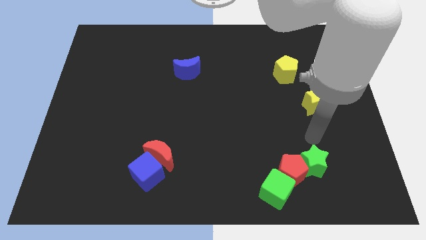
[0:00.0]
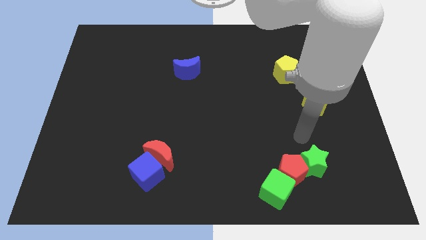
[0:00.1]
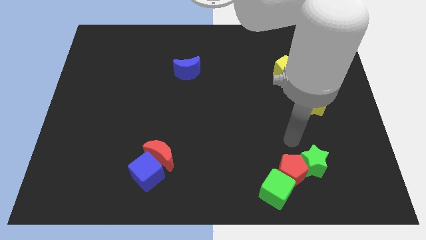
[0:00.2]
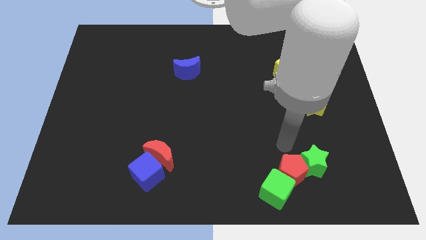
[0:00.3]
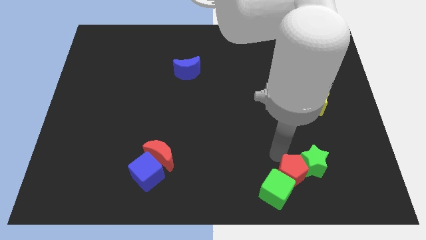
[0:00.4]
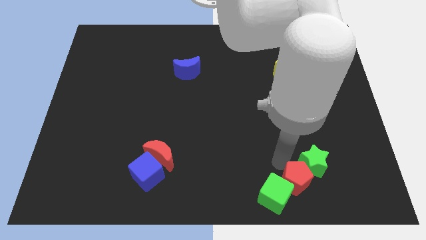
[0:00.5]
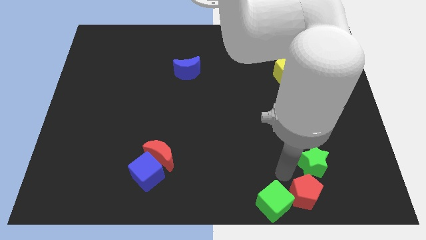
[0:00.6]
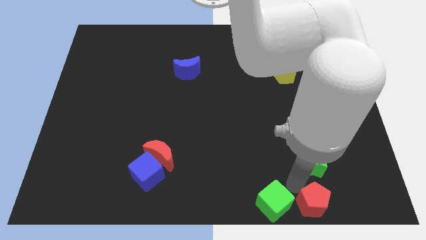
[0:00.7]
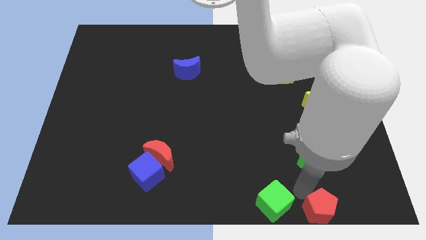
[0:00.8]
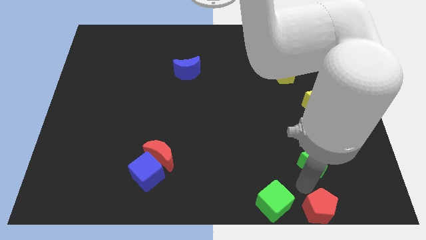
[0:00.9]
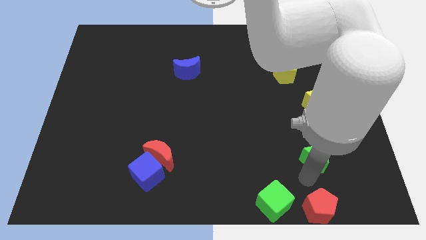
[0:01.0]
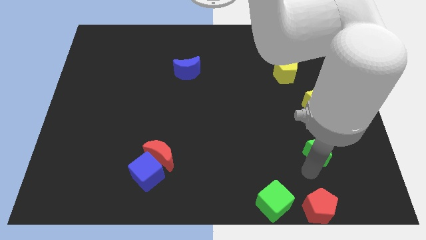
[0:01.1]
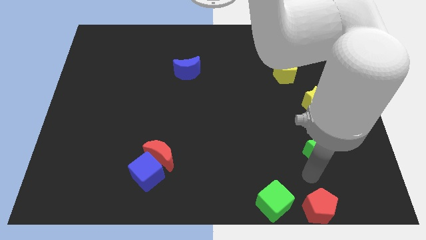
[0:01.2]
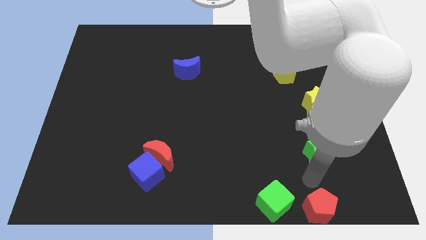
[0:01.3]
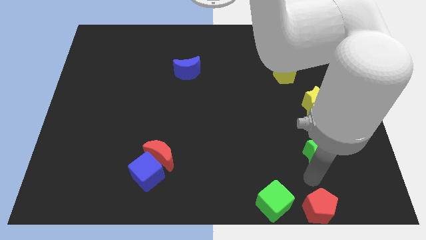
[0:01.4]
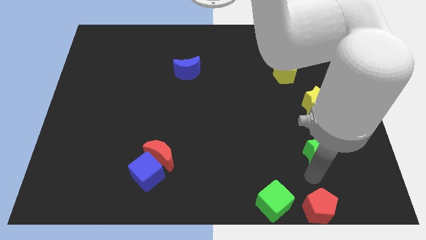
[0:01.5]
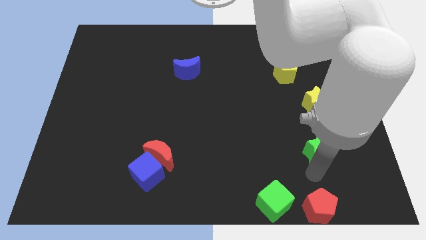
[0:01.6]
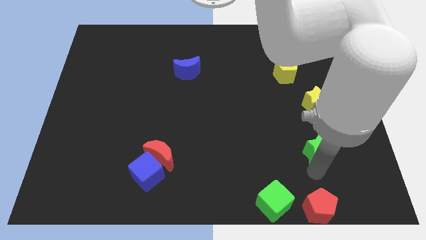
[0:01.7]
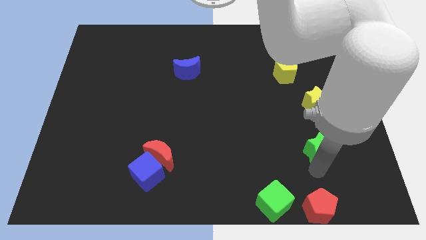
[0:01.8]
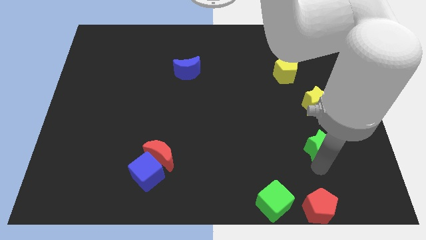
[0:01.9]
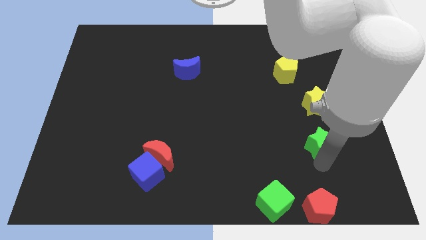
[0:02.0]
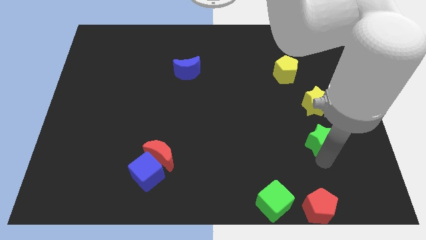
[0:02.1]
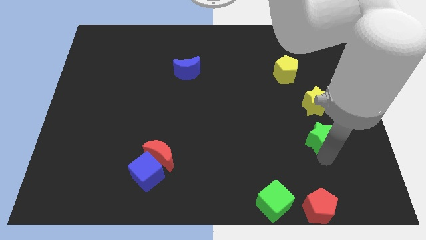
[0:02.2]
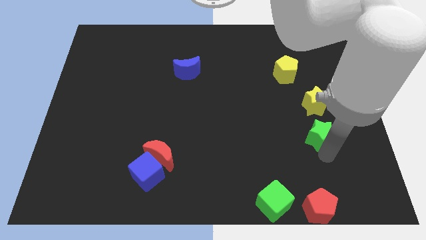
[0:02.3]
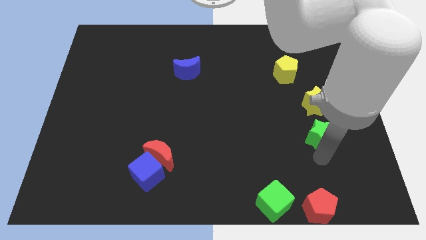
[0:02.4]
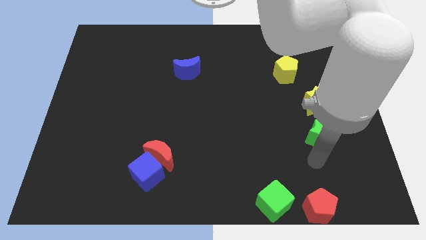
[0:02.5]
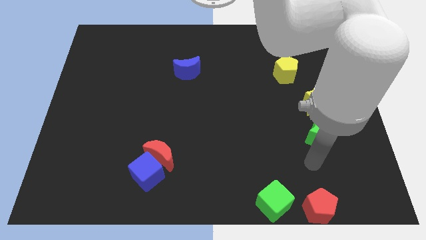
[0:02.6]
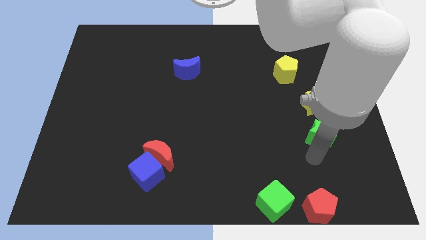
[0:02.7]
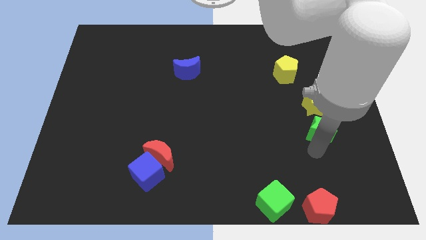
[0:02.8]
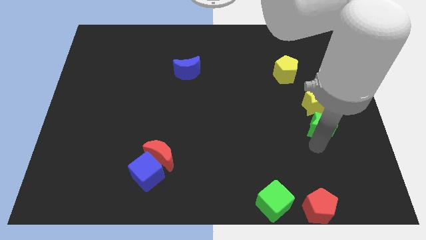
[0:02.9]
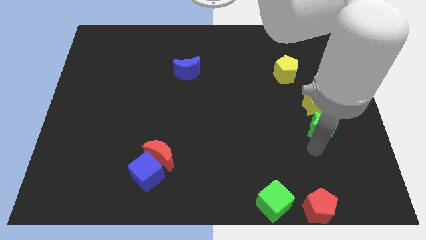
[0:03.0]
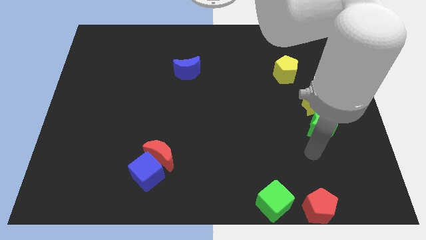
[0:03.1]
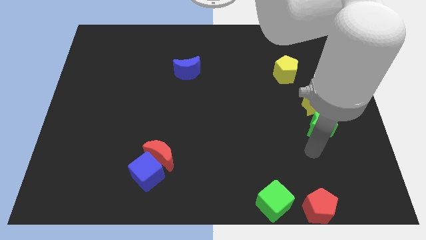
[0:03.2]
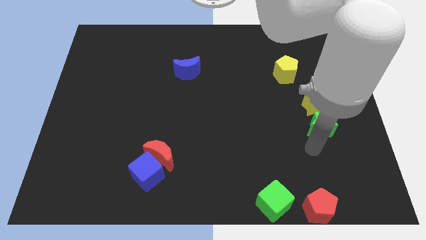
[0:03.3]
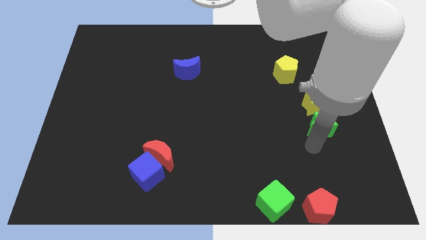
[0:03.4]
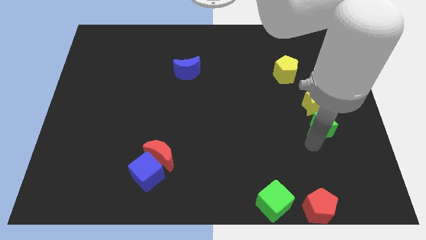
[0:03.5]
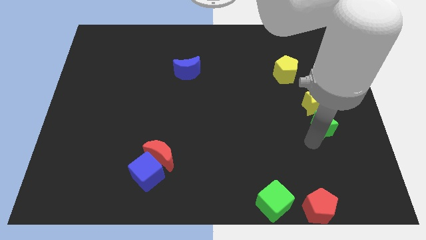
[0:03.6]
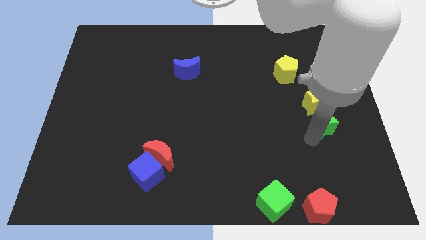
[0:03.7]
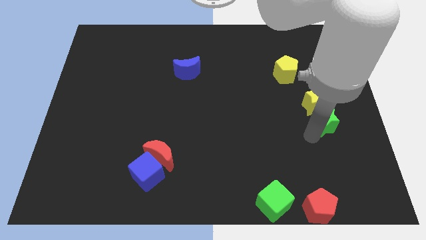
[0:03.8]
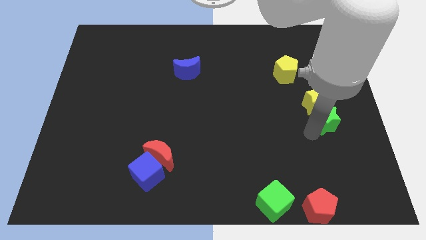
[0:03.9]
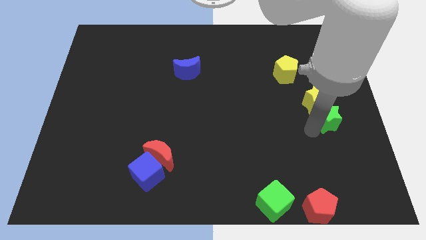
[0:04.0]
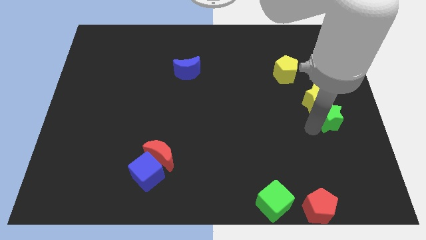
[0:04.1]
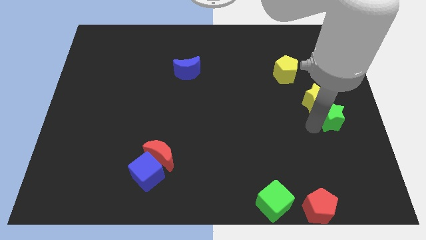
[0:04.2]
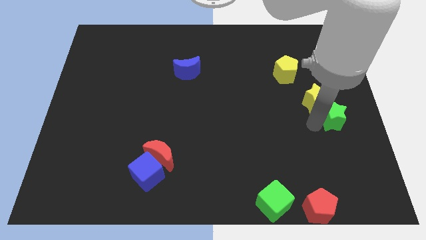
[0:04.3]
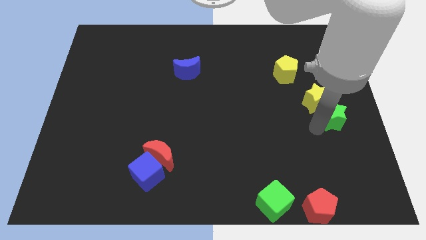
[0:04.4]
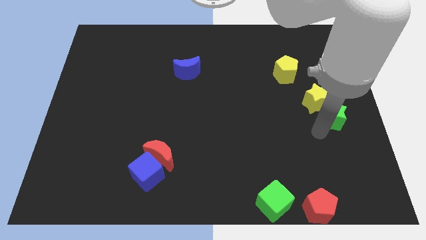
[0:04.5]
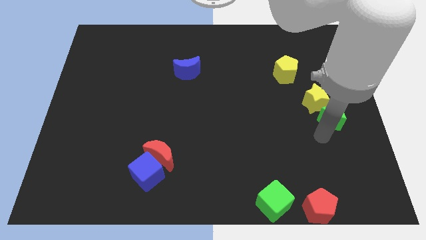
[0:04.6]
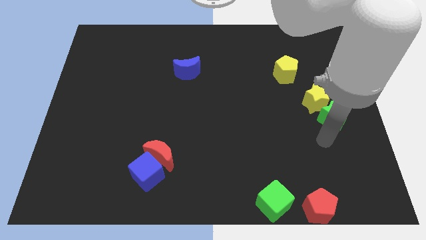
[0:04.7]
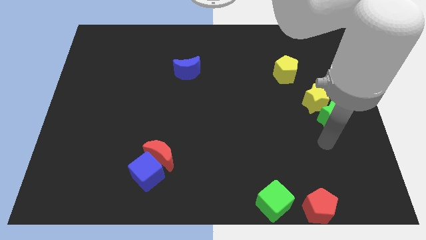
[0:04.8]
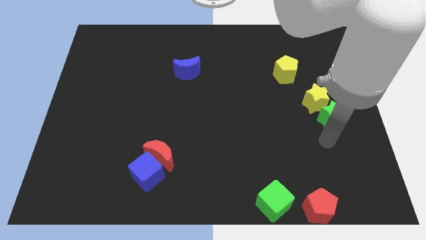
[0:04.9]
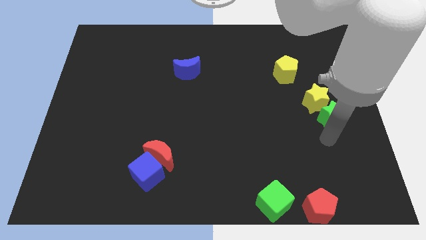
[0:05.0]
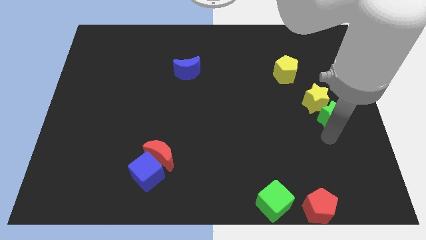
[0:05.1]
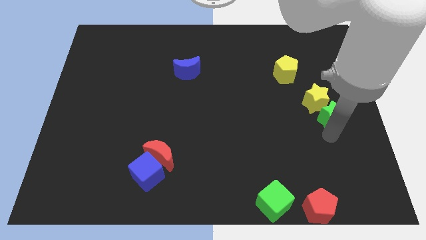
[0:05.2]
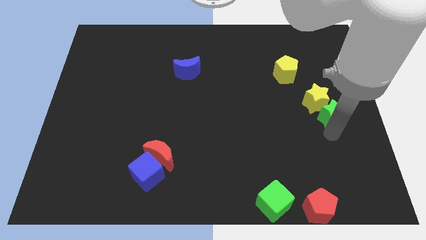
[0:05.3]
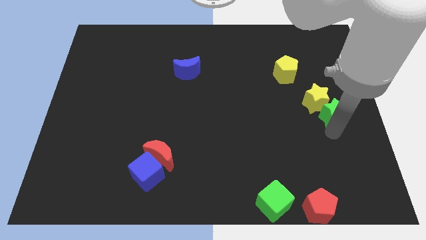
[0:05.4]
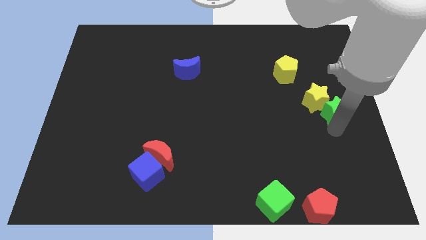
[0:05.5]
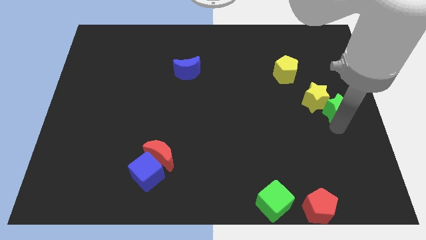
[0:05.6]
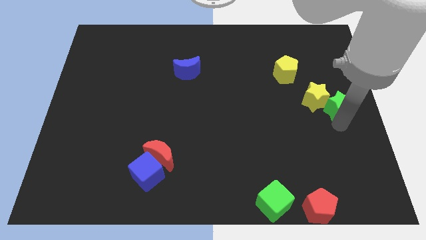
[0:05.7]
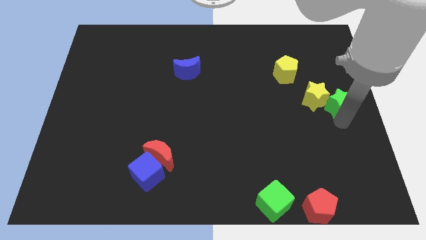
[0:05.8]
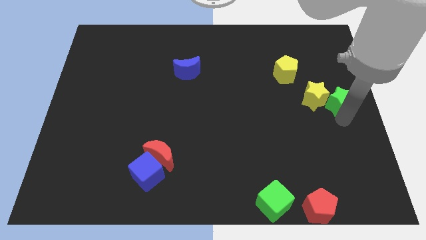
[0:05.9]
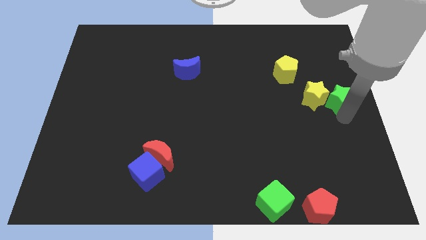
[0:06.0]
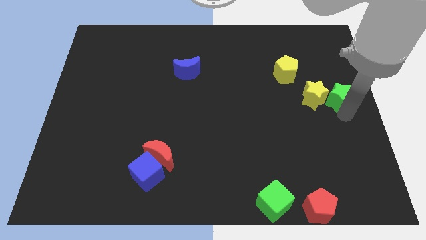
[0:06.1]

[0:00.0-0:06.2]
slide the green star to the top right side of the yellow star

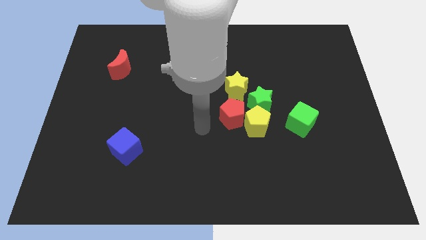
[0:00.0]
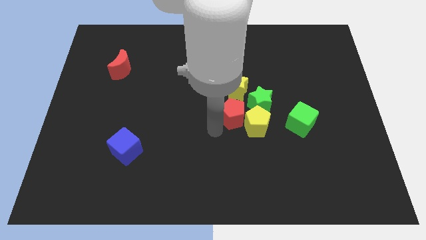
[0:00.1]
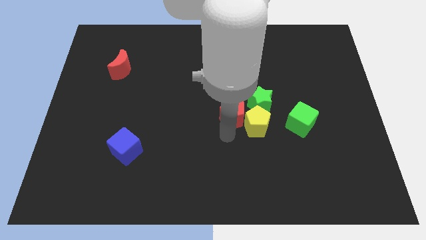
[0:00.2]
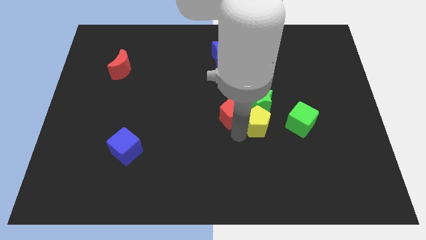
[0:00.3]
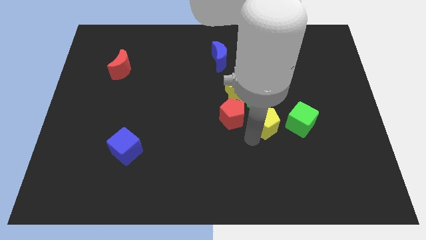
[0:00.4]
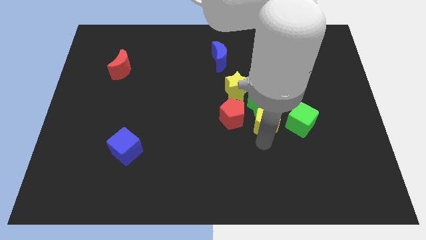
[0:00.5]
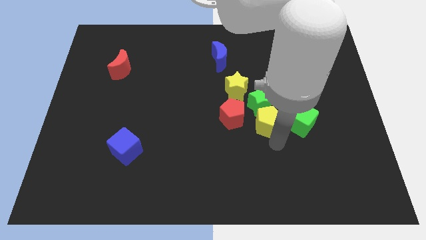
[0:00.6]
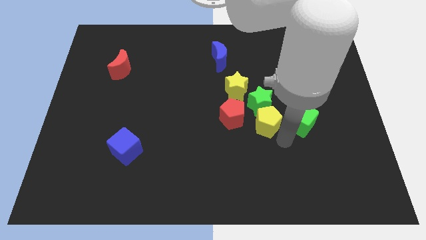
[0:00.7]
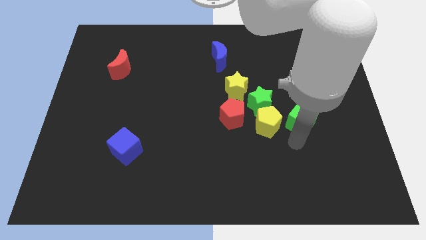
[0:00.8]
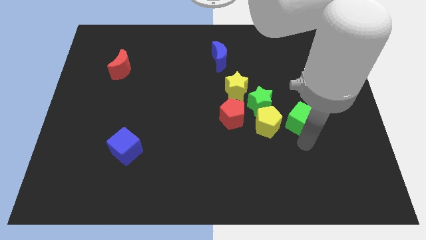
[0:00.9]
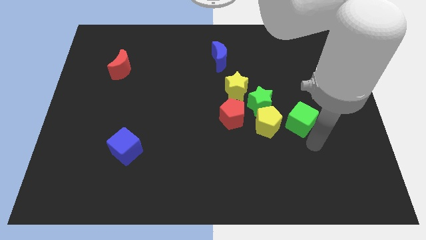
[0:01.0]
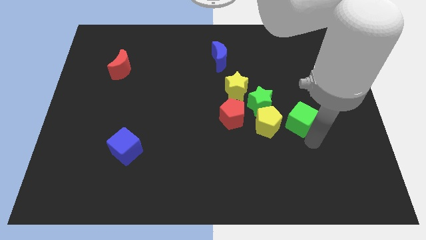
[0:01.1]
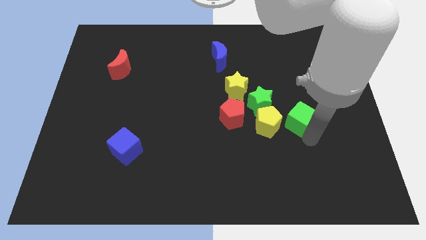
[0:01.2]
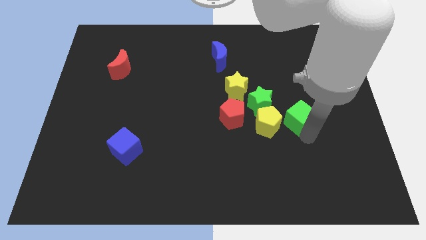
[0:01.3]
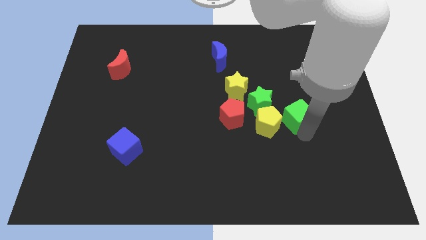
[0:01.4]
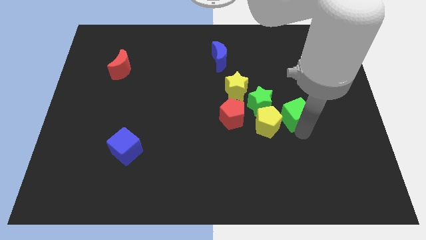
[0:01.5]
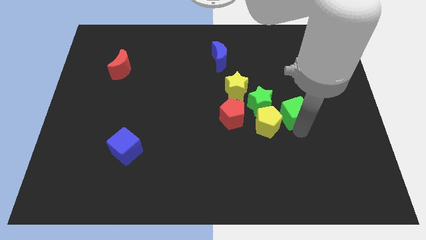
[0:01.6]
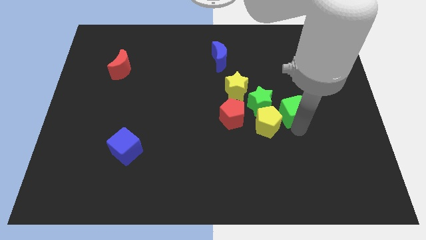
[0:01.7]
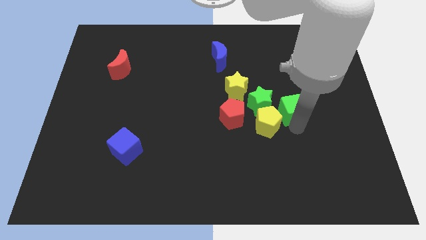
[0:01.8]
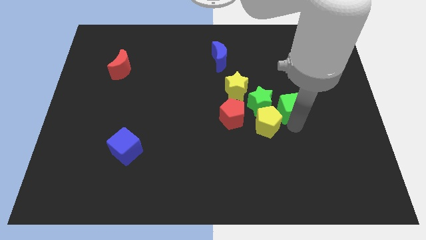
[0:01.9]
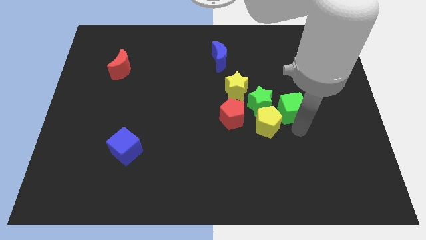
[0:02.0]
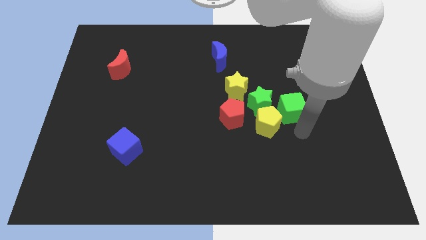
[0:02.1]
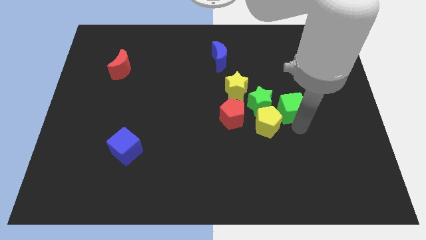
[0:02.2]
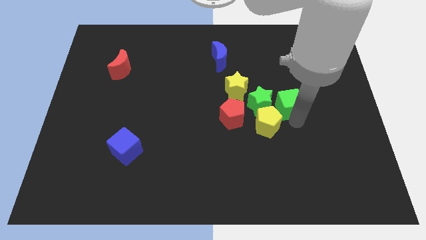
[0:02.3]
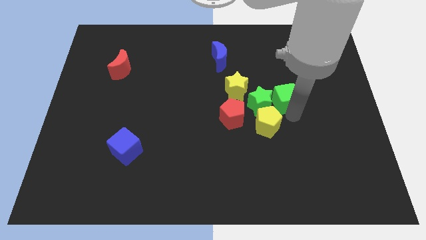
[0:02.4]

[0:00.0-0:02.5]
slide the green cube to the right side of the yellow star
